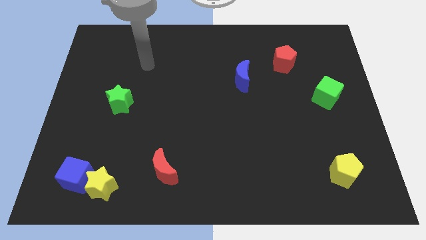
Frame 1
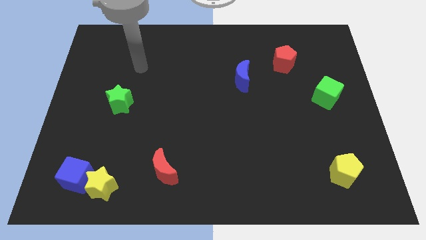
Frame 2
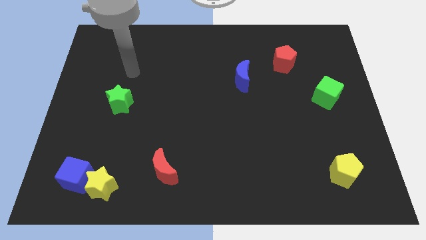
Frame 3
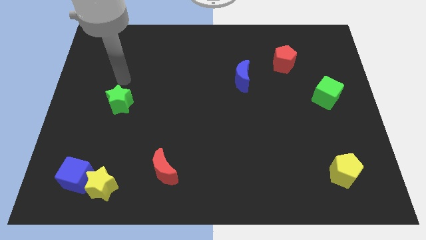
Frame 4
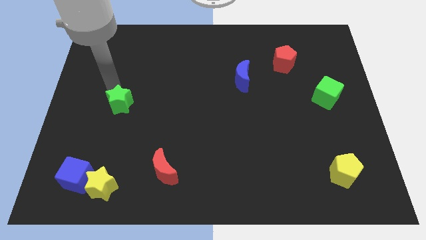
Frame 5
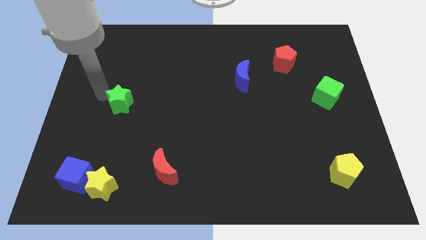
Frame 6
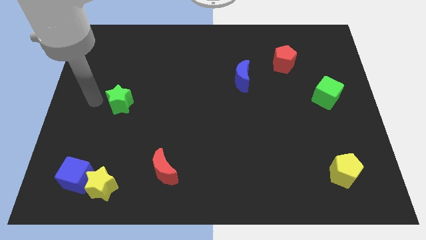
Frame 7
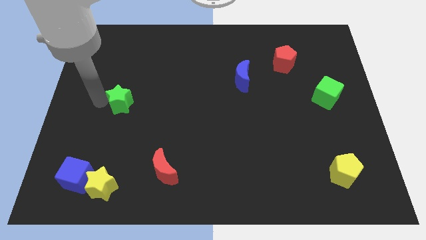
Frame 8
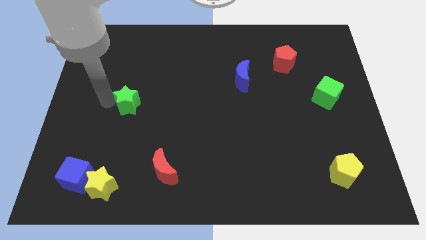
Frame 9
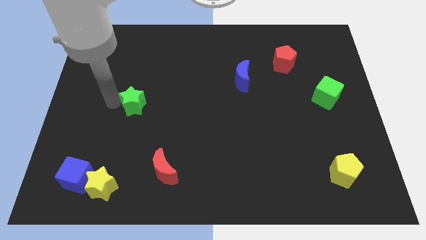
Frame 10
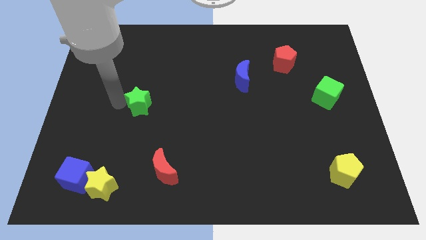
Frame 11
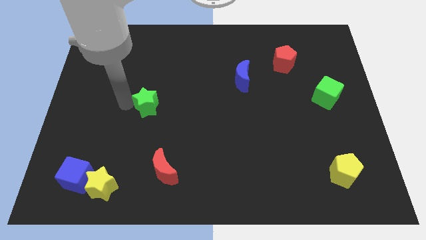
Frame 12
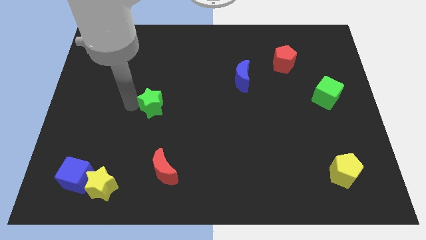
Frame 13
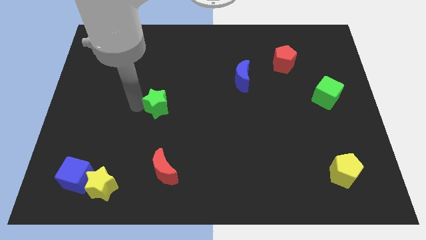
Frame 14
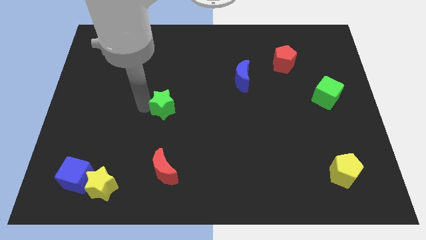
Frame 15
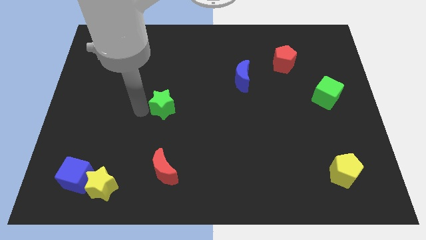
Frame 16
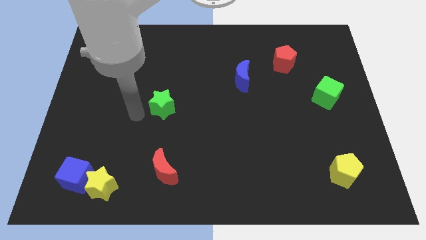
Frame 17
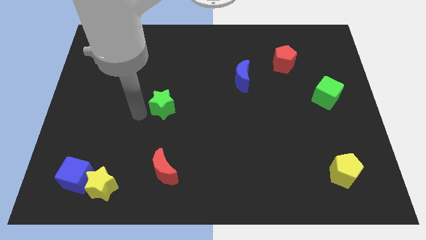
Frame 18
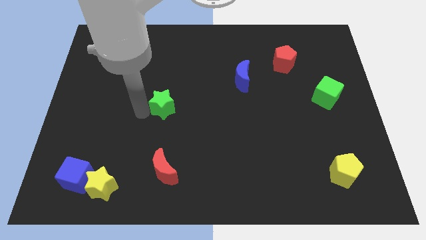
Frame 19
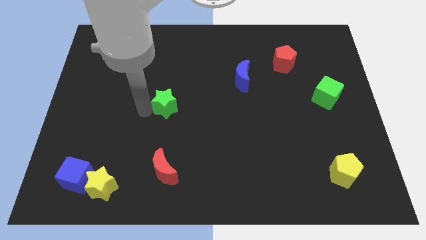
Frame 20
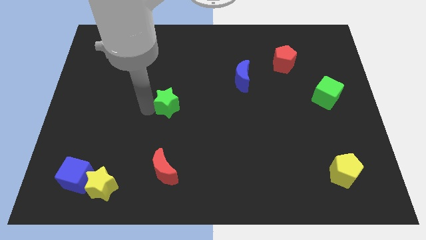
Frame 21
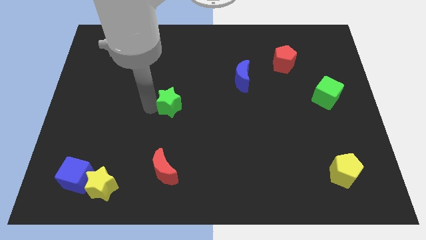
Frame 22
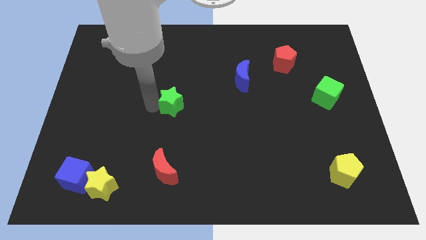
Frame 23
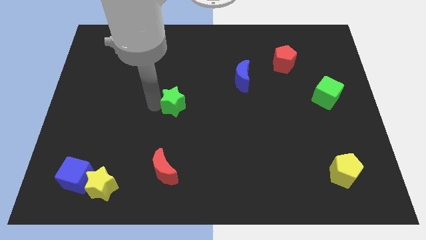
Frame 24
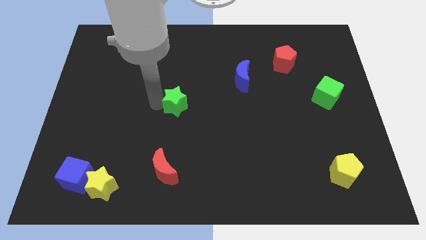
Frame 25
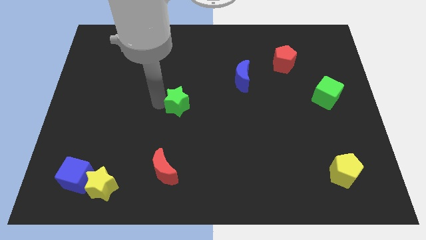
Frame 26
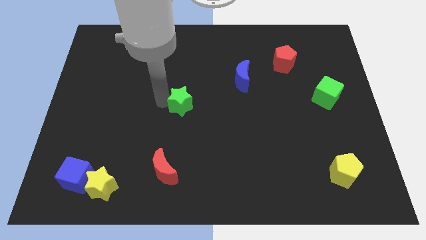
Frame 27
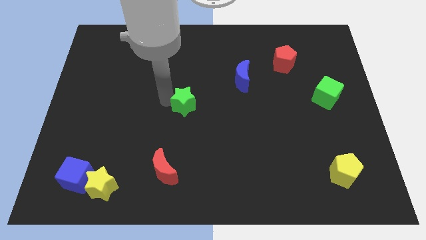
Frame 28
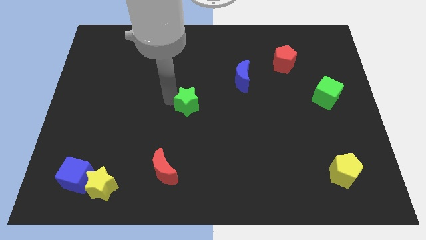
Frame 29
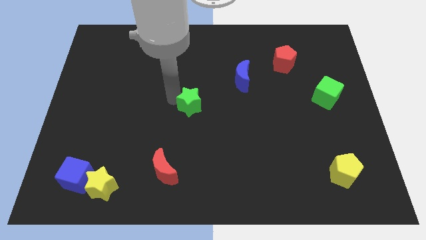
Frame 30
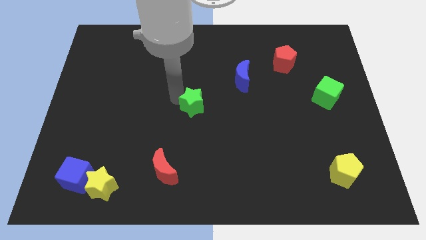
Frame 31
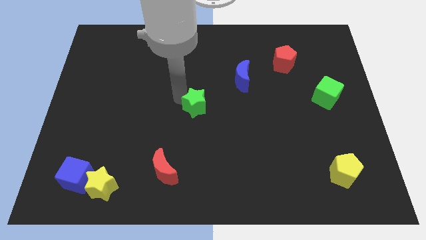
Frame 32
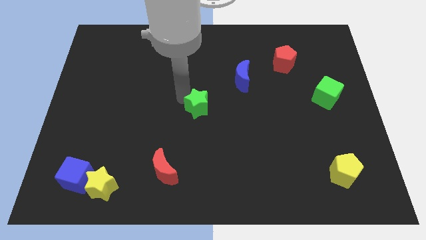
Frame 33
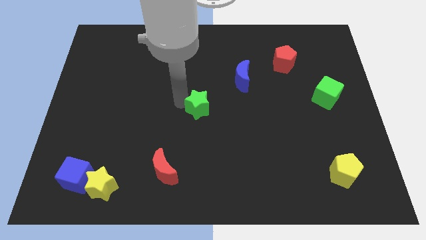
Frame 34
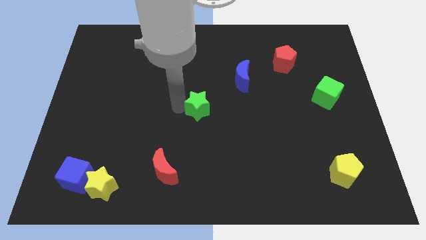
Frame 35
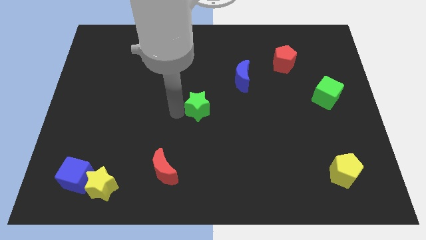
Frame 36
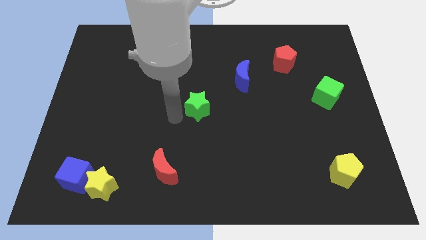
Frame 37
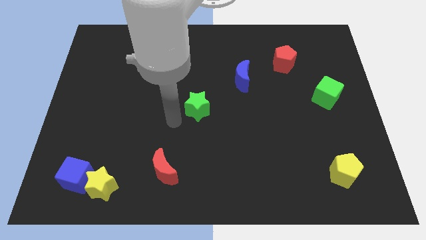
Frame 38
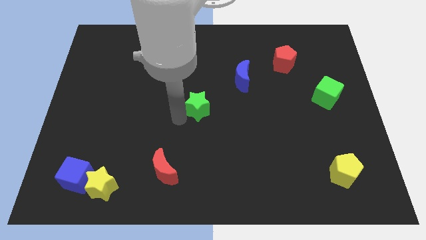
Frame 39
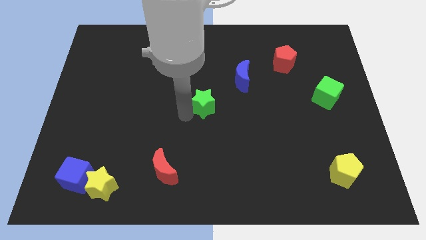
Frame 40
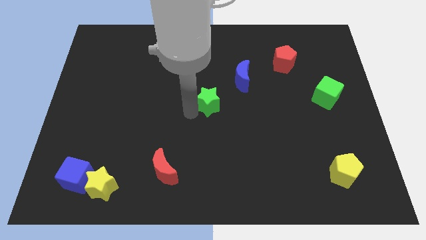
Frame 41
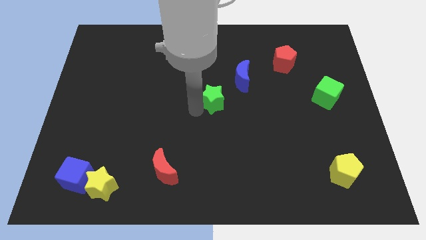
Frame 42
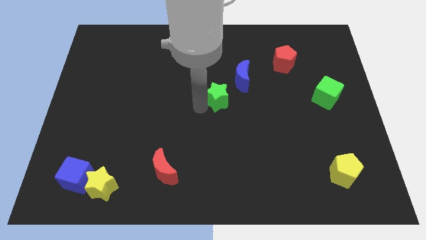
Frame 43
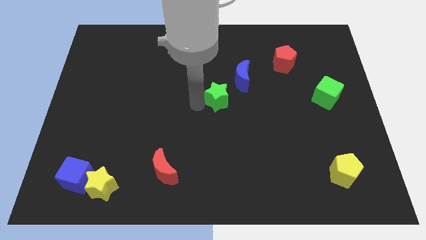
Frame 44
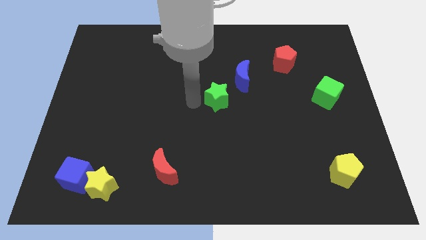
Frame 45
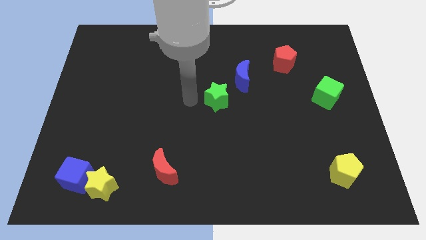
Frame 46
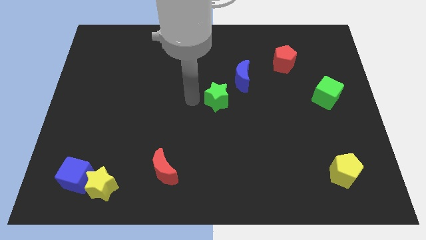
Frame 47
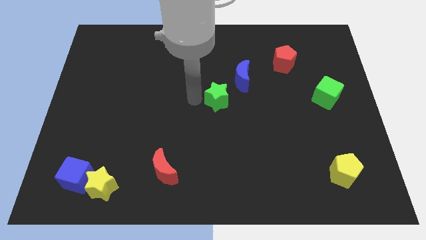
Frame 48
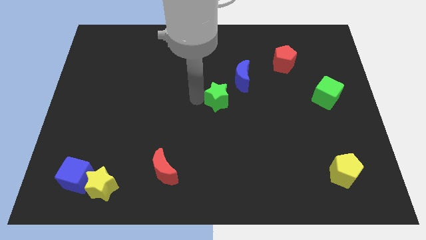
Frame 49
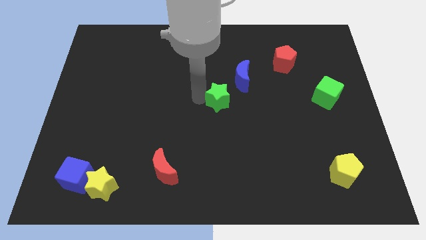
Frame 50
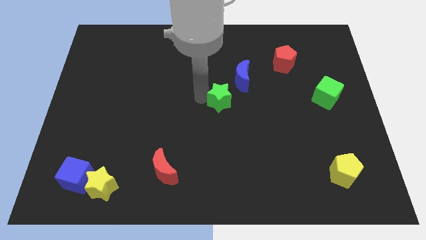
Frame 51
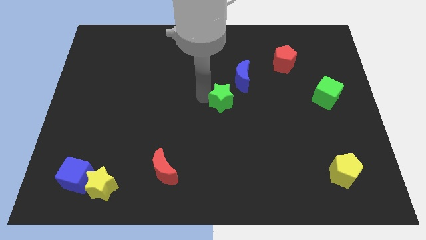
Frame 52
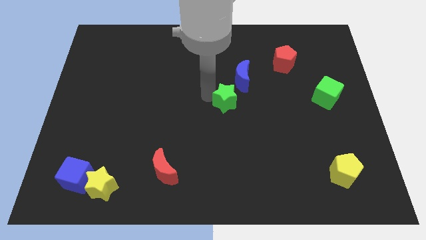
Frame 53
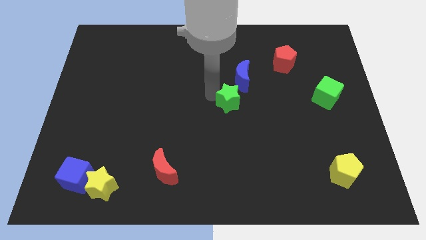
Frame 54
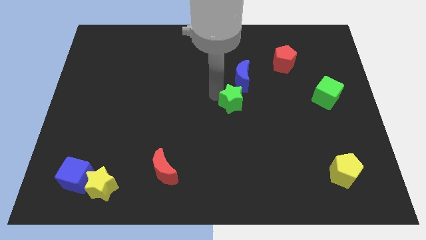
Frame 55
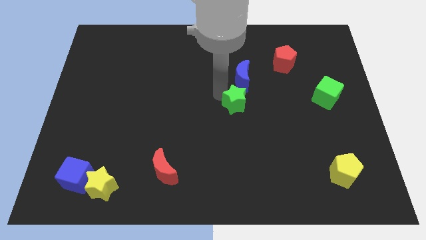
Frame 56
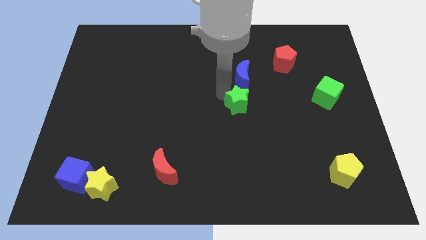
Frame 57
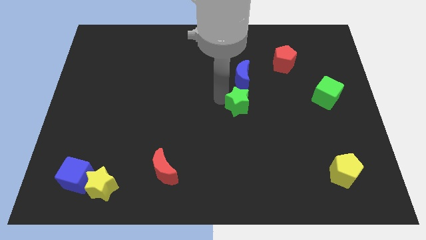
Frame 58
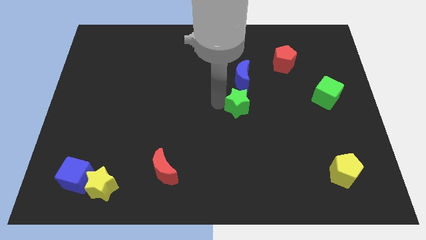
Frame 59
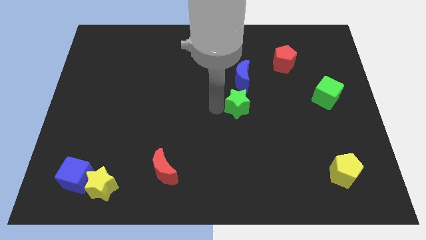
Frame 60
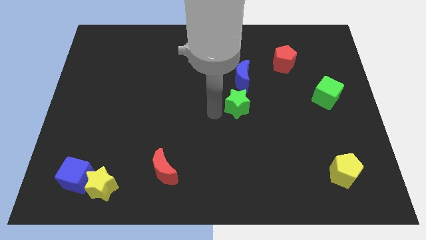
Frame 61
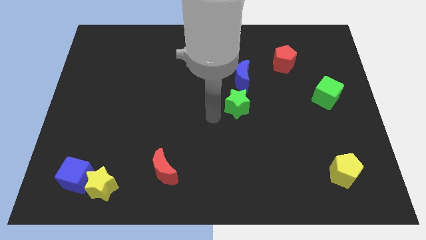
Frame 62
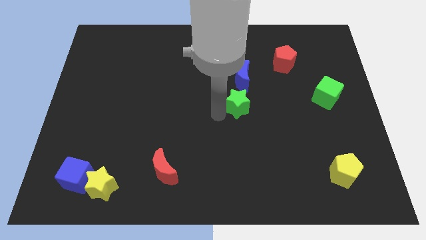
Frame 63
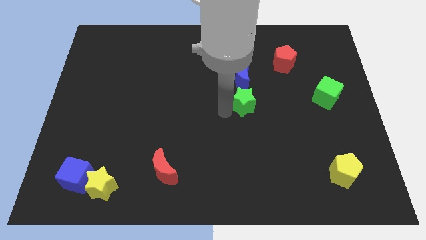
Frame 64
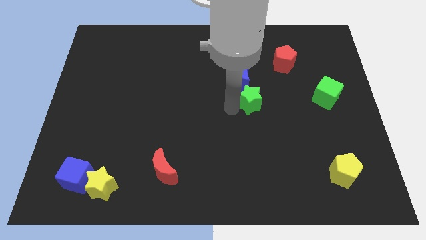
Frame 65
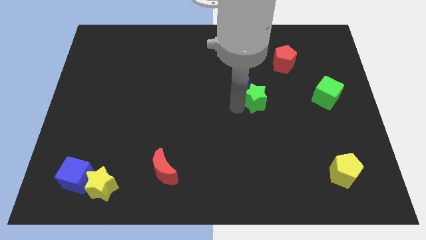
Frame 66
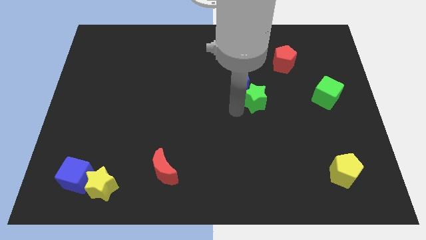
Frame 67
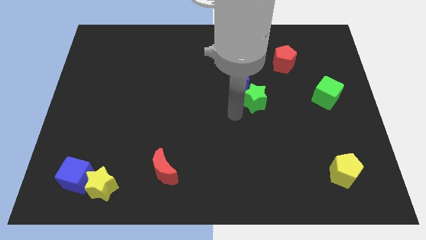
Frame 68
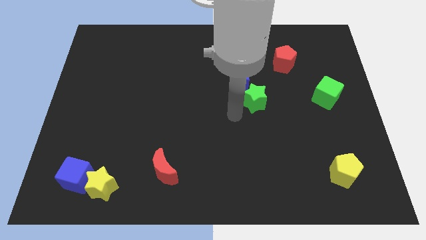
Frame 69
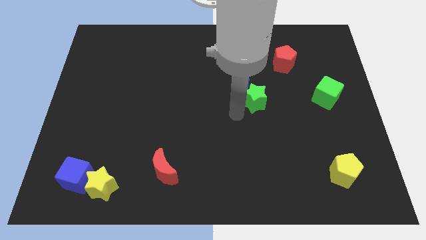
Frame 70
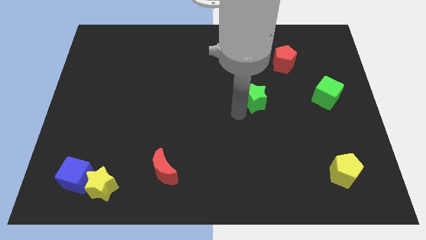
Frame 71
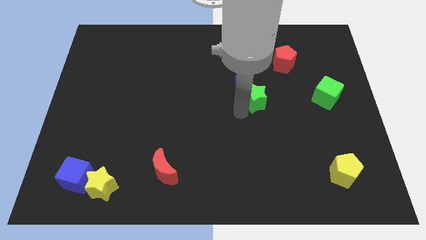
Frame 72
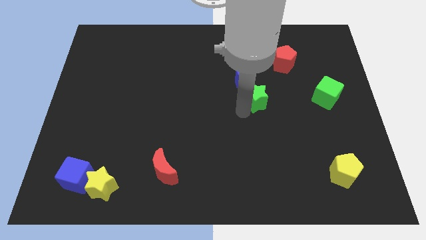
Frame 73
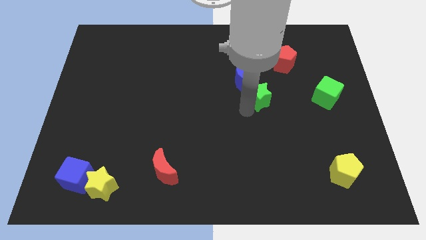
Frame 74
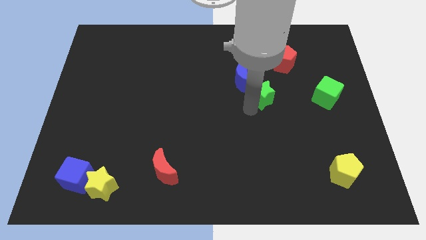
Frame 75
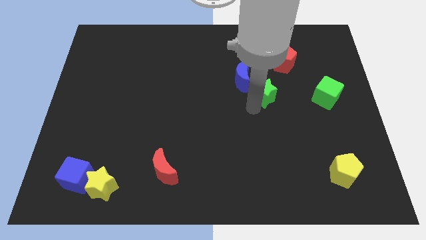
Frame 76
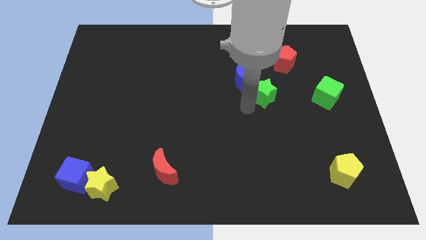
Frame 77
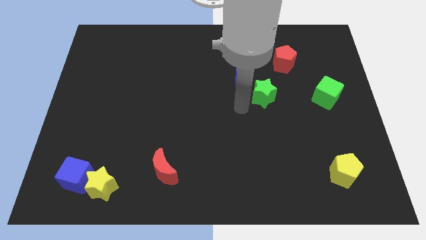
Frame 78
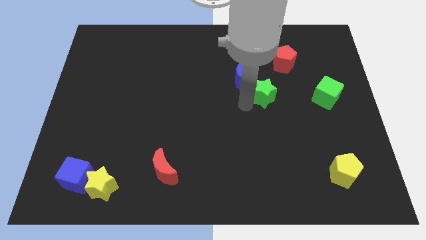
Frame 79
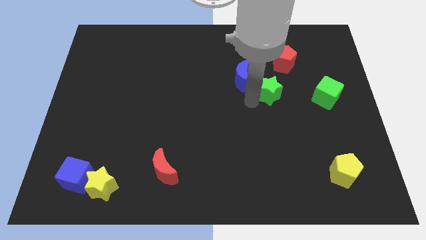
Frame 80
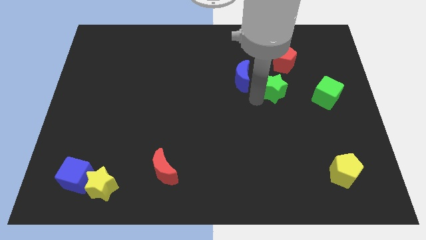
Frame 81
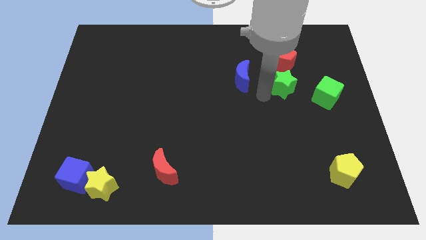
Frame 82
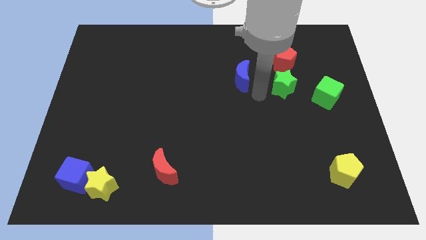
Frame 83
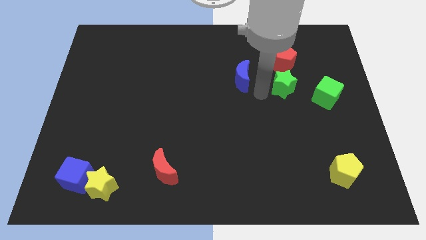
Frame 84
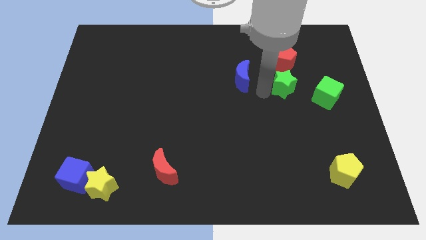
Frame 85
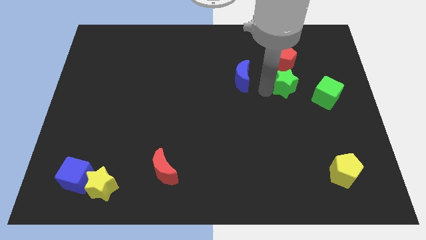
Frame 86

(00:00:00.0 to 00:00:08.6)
push the green star to the top left side of the green cube
